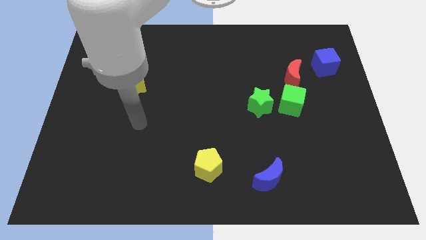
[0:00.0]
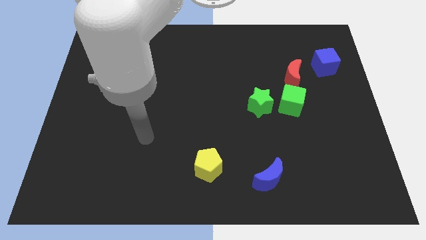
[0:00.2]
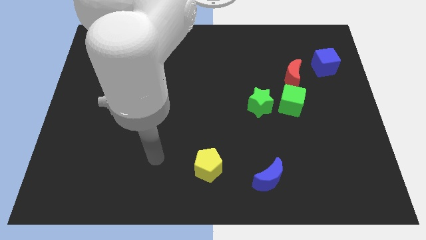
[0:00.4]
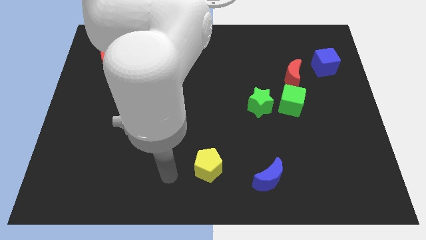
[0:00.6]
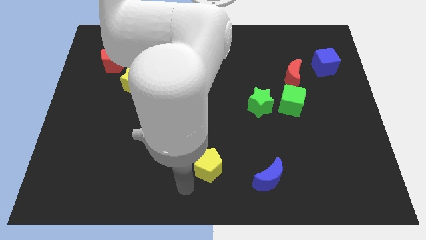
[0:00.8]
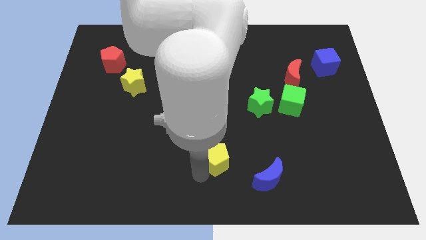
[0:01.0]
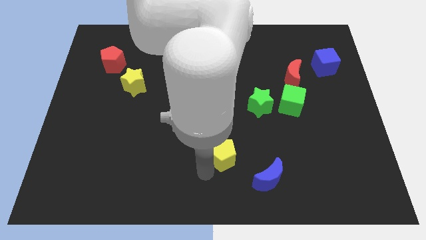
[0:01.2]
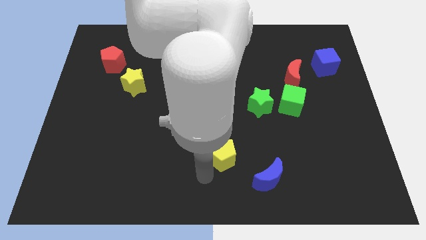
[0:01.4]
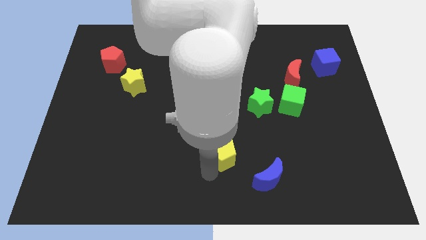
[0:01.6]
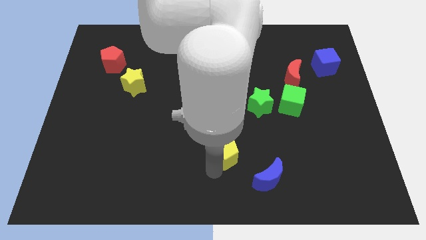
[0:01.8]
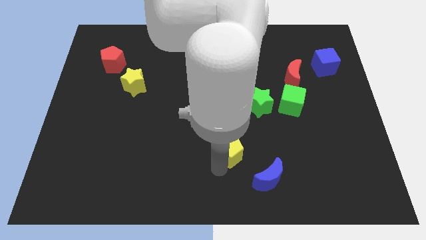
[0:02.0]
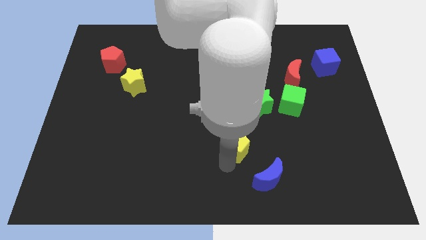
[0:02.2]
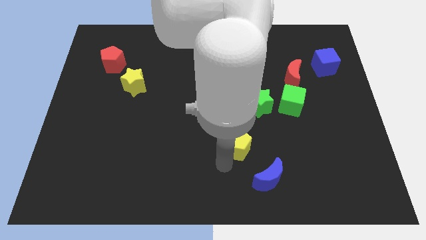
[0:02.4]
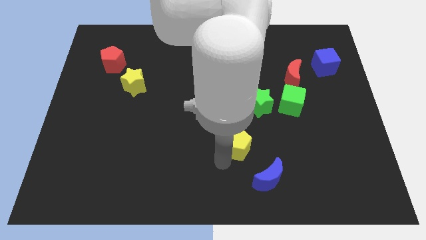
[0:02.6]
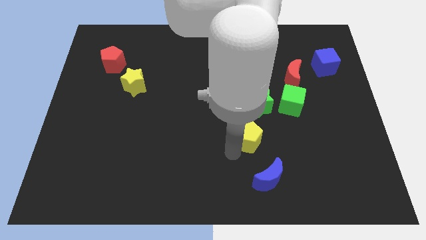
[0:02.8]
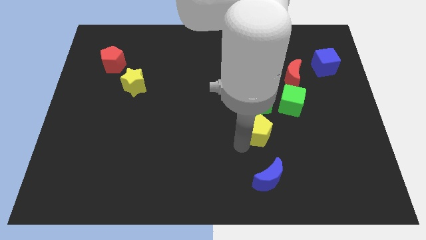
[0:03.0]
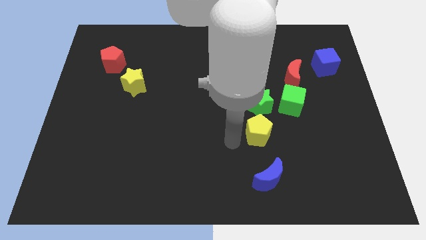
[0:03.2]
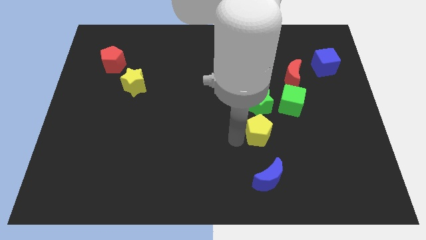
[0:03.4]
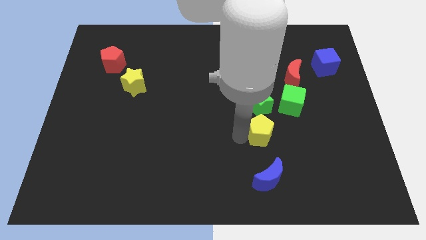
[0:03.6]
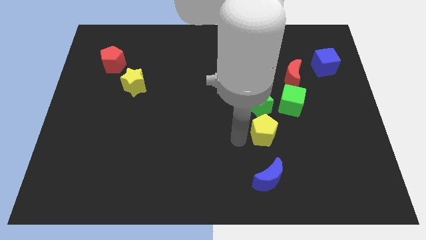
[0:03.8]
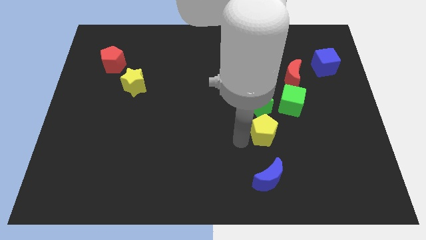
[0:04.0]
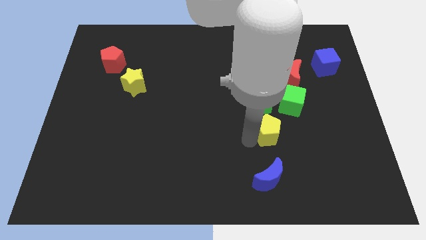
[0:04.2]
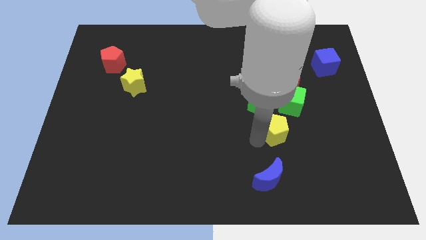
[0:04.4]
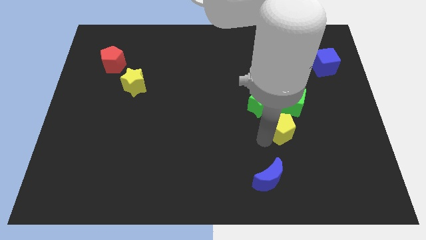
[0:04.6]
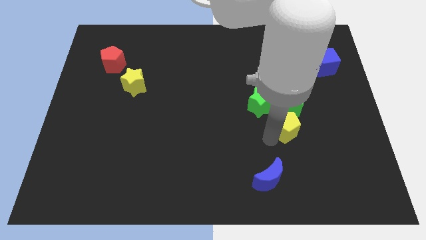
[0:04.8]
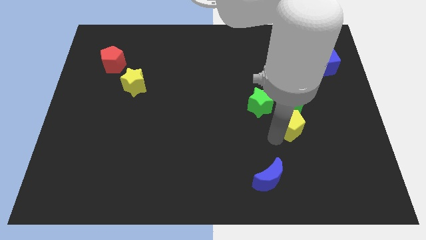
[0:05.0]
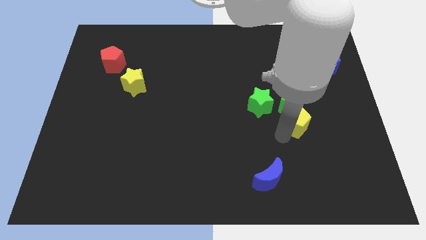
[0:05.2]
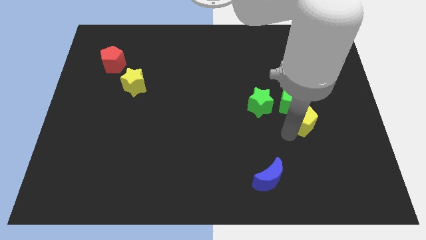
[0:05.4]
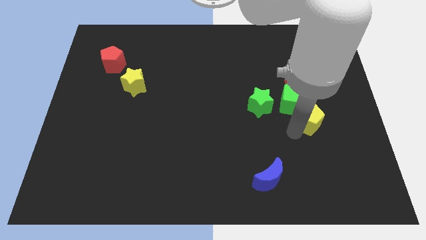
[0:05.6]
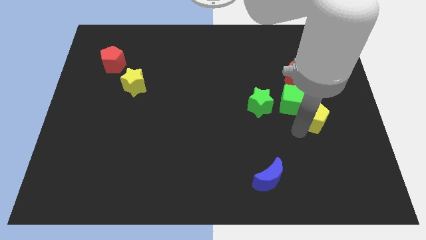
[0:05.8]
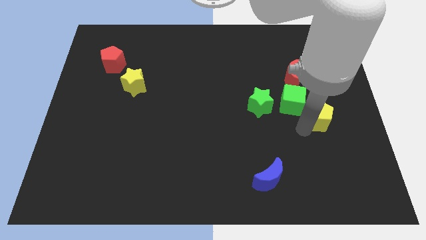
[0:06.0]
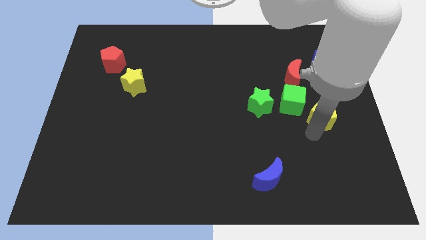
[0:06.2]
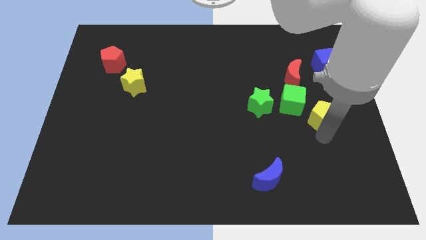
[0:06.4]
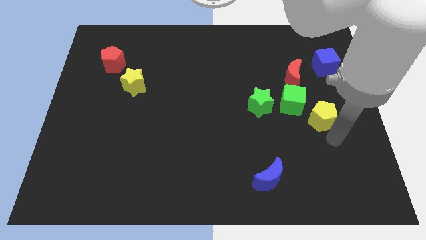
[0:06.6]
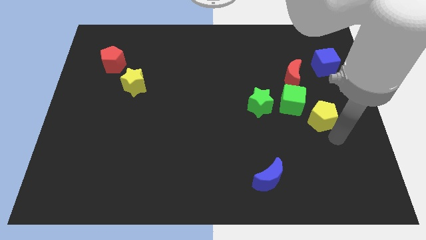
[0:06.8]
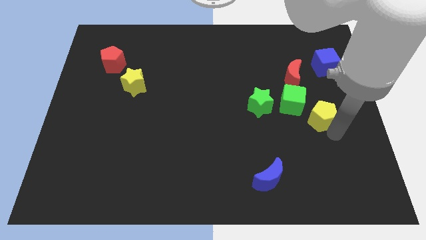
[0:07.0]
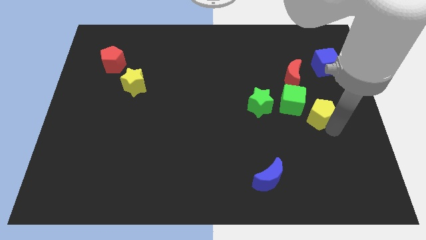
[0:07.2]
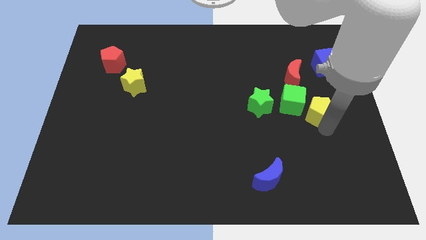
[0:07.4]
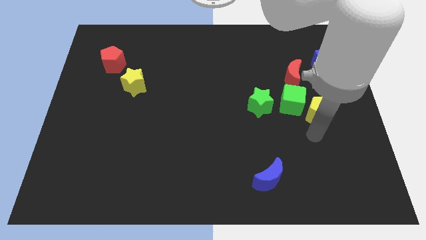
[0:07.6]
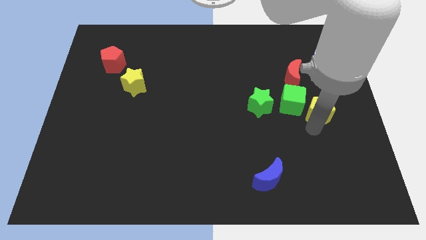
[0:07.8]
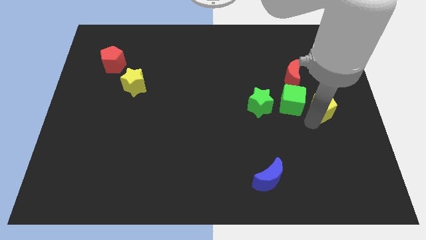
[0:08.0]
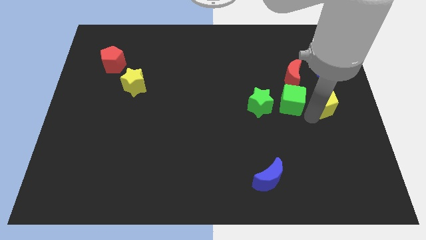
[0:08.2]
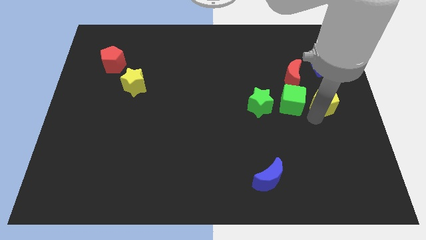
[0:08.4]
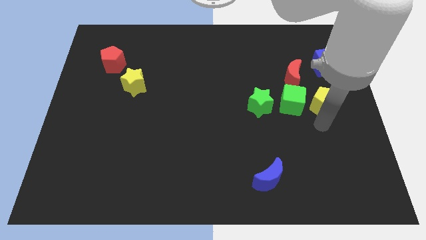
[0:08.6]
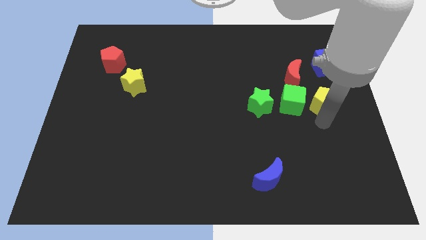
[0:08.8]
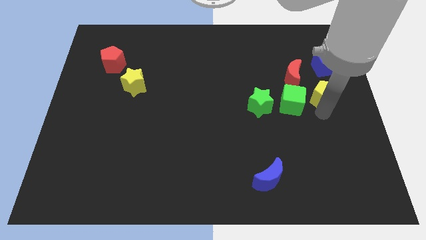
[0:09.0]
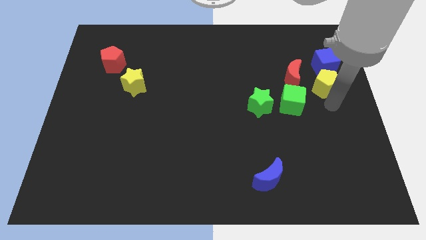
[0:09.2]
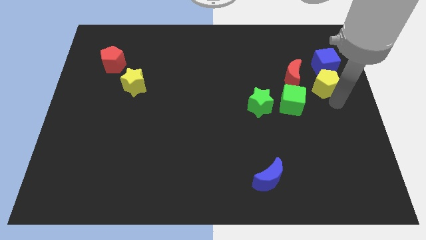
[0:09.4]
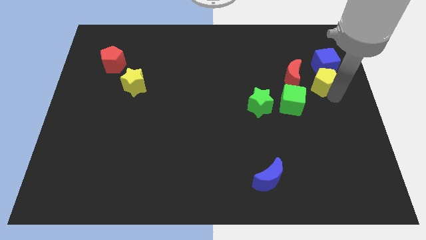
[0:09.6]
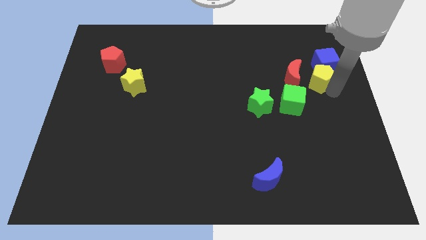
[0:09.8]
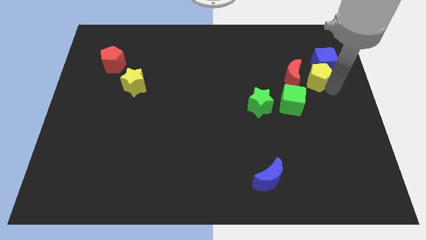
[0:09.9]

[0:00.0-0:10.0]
move the yellow pentagon to the top right of the red moon

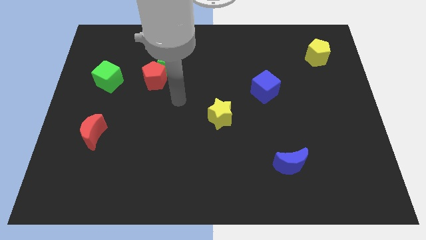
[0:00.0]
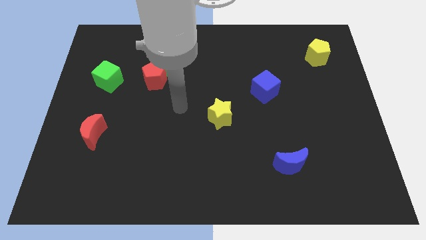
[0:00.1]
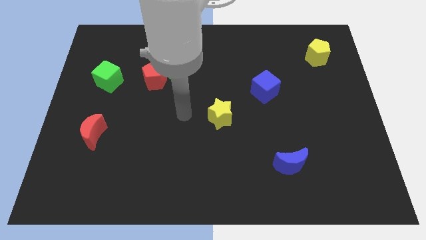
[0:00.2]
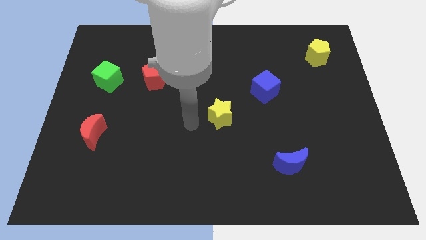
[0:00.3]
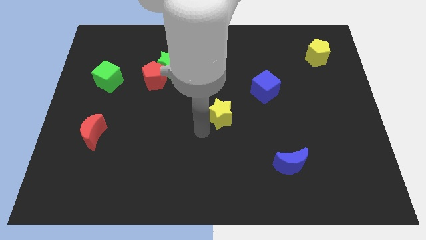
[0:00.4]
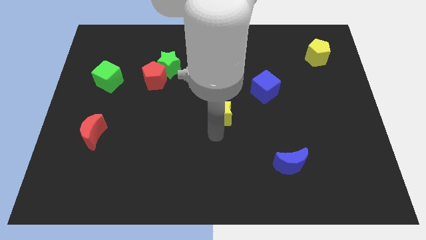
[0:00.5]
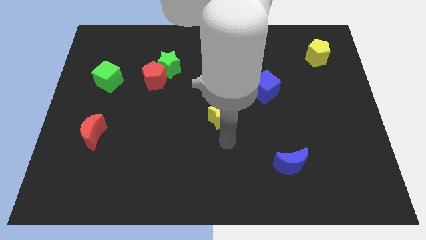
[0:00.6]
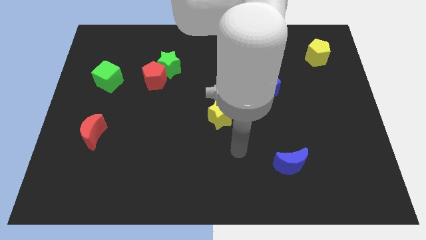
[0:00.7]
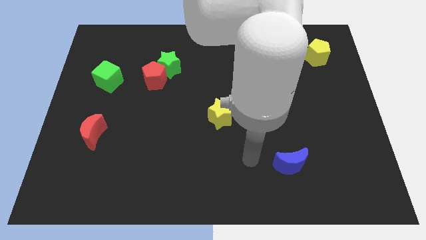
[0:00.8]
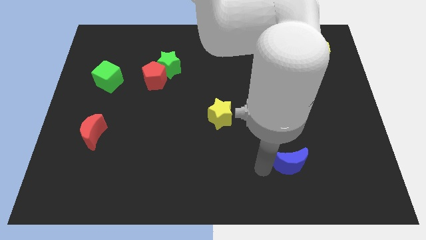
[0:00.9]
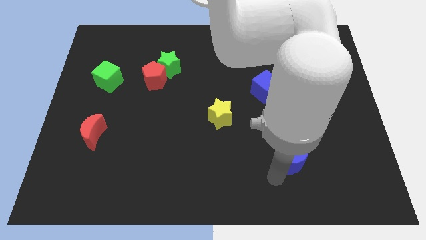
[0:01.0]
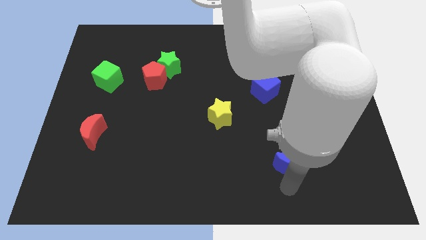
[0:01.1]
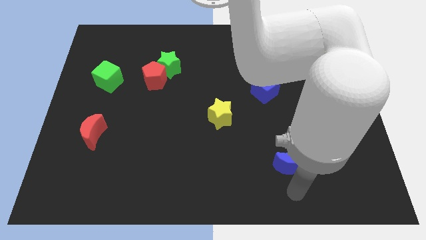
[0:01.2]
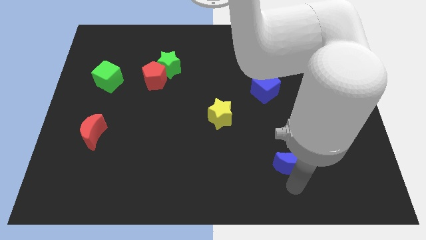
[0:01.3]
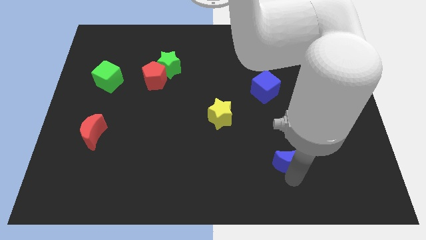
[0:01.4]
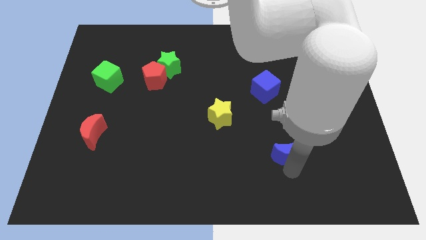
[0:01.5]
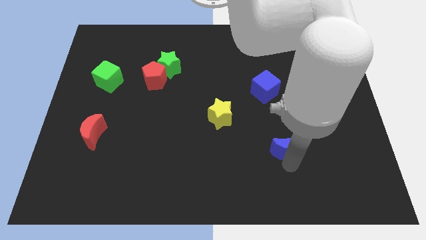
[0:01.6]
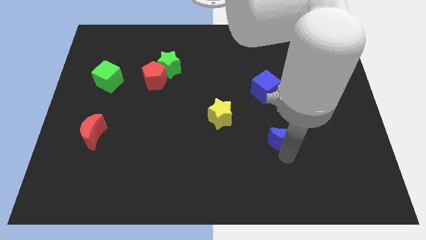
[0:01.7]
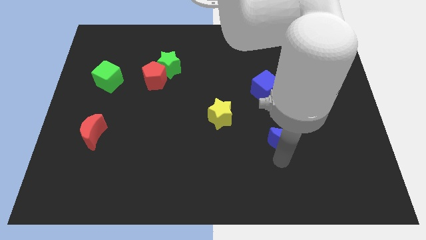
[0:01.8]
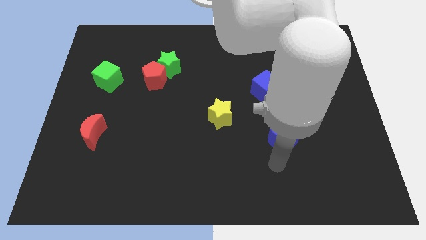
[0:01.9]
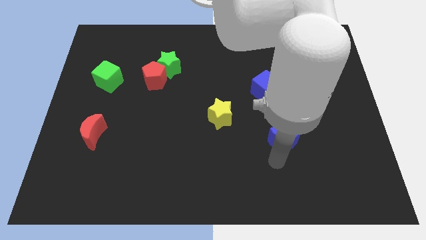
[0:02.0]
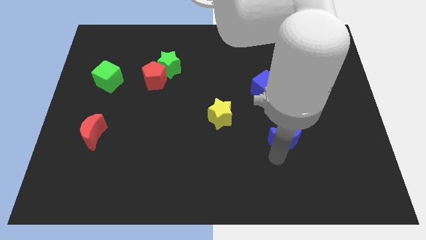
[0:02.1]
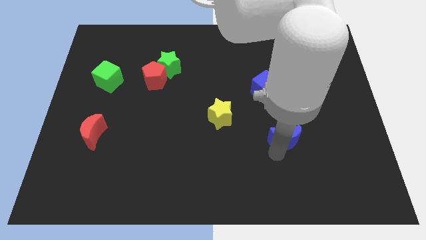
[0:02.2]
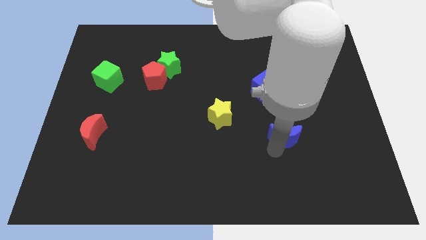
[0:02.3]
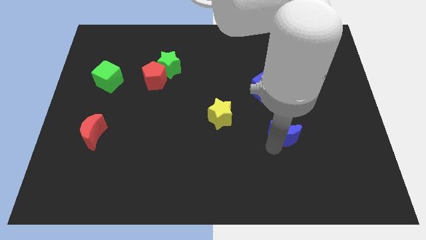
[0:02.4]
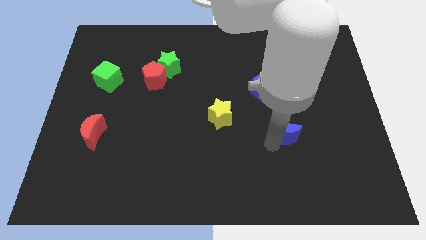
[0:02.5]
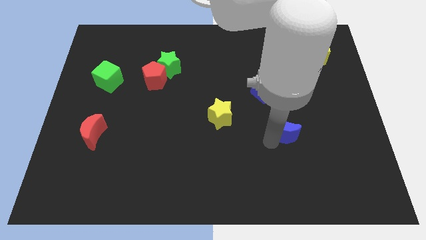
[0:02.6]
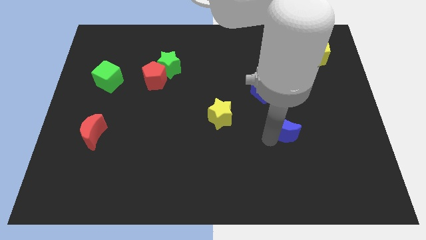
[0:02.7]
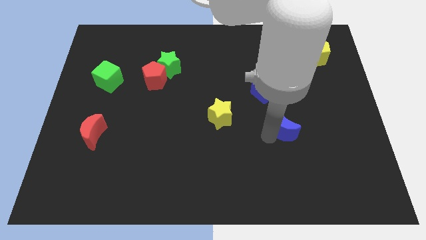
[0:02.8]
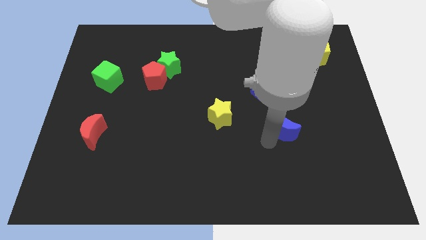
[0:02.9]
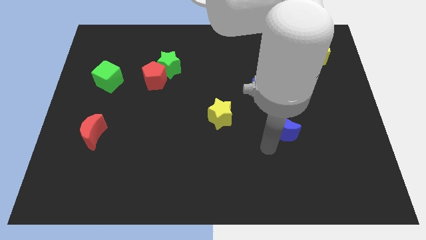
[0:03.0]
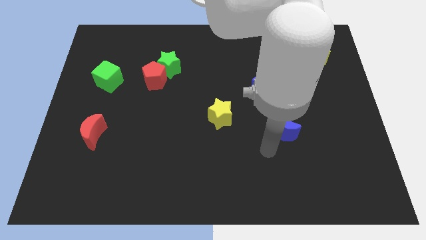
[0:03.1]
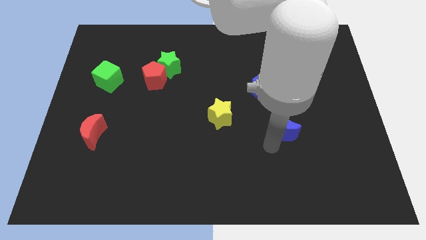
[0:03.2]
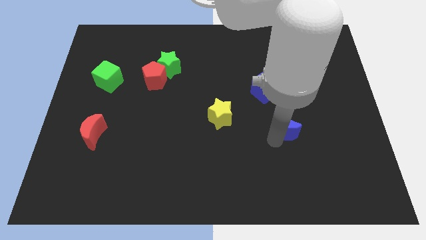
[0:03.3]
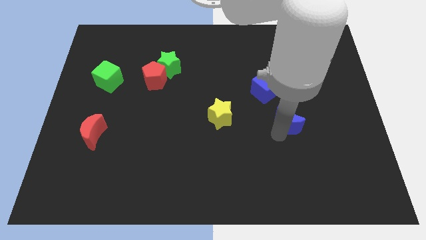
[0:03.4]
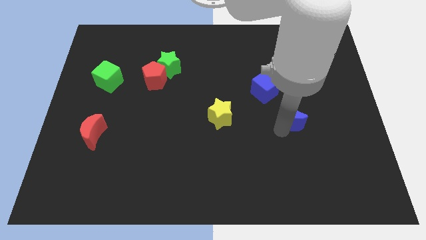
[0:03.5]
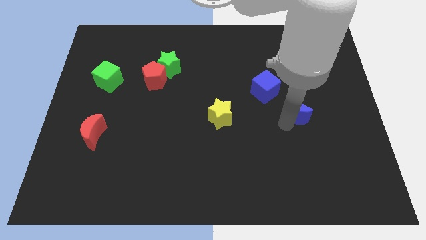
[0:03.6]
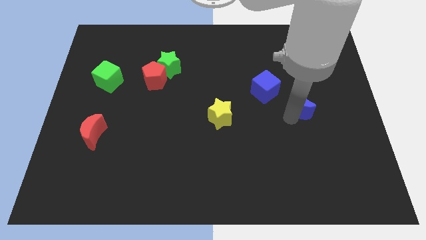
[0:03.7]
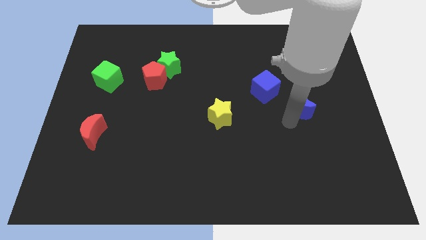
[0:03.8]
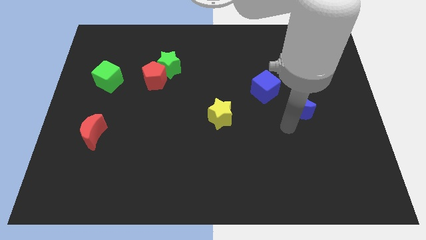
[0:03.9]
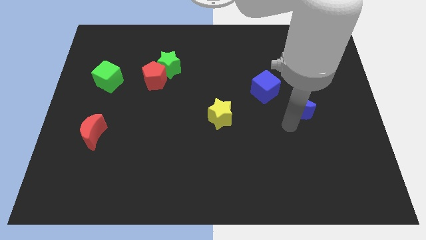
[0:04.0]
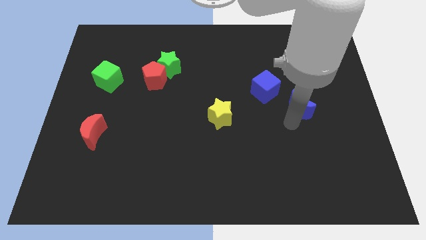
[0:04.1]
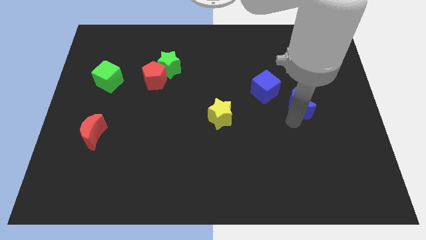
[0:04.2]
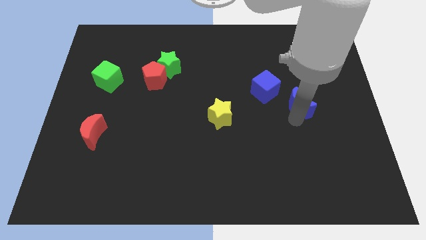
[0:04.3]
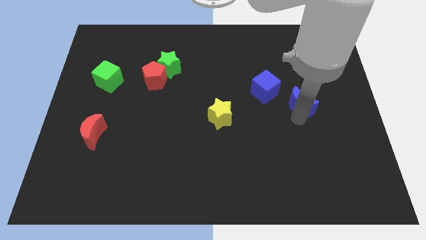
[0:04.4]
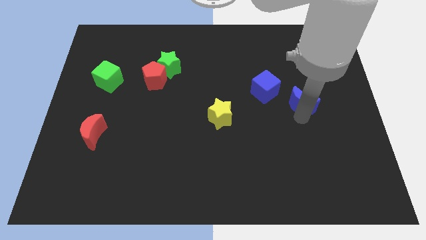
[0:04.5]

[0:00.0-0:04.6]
put the blue moon just right of the blue cube
